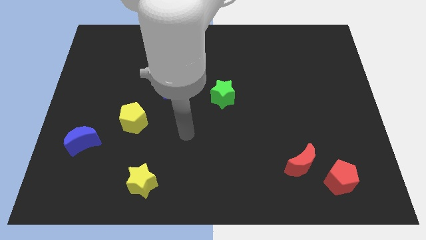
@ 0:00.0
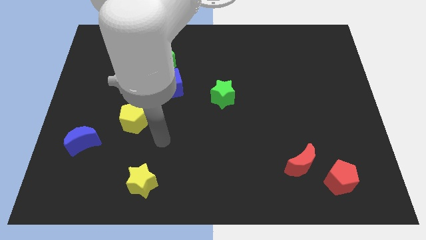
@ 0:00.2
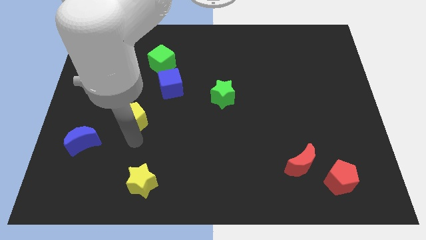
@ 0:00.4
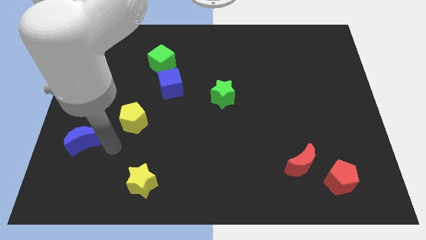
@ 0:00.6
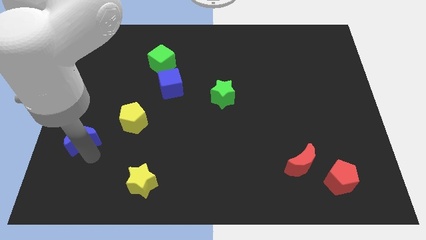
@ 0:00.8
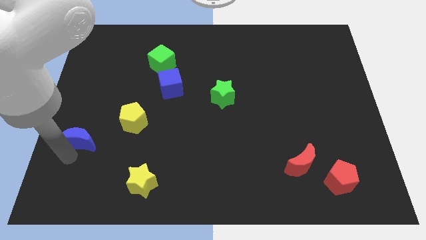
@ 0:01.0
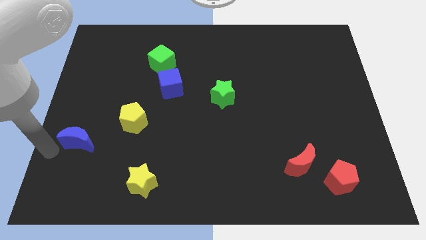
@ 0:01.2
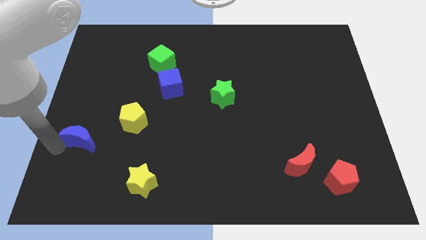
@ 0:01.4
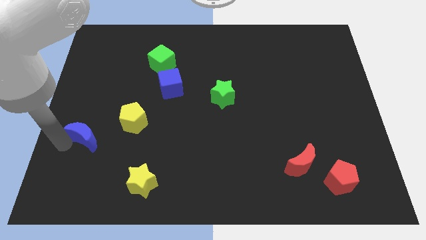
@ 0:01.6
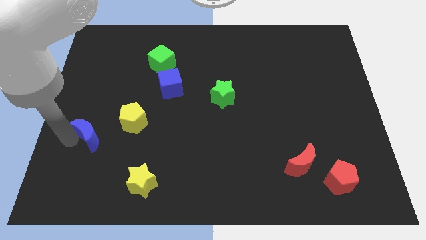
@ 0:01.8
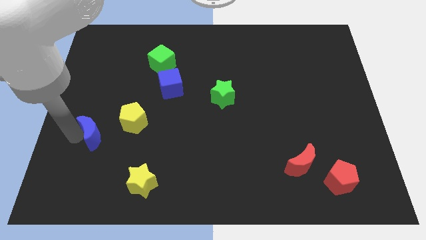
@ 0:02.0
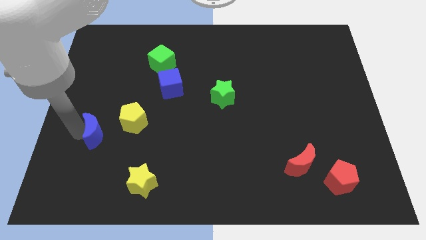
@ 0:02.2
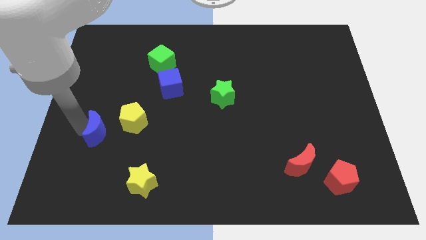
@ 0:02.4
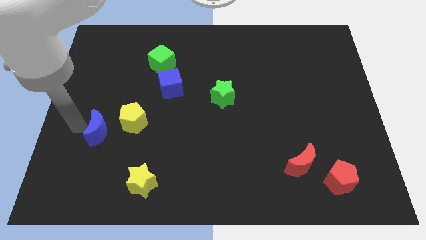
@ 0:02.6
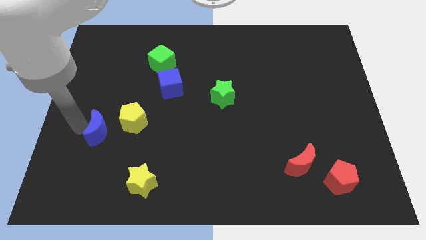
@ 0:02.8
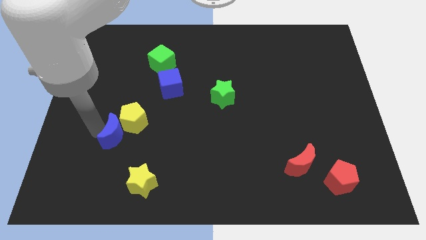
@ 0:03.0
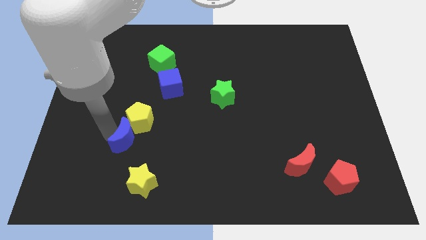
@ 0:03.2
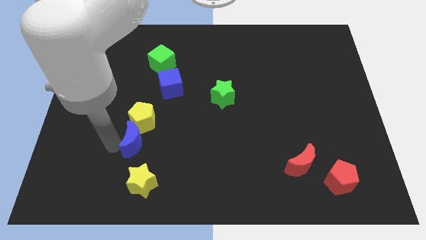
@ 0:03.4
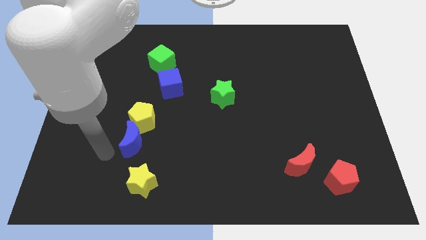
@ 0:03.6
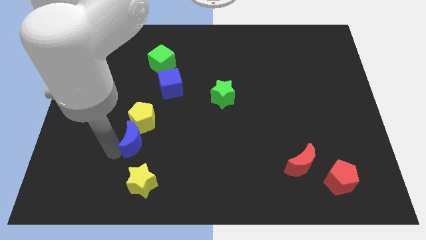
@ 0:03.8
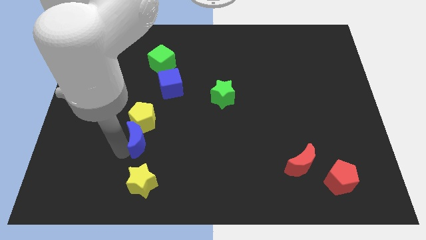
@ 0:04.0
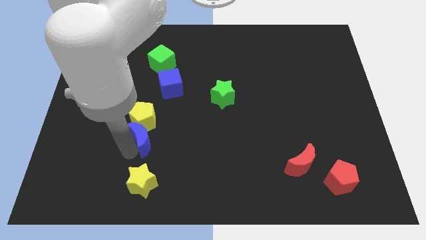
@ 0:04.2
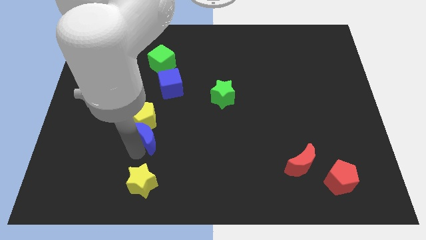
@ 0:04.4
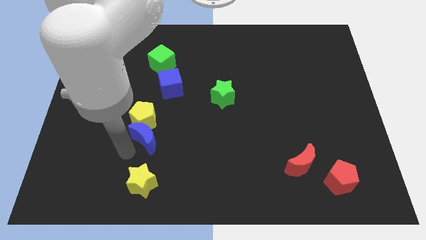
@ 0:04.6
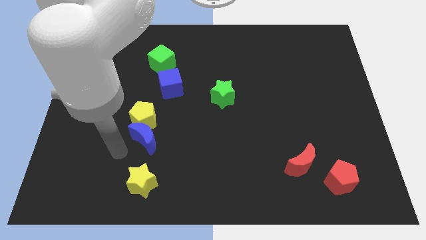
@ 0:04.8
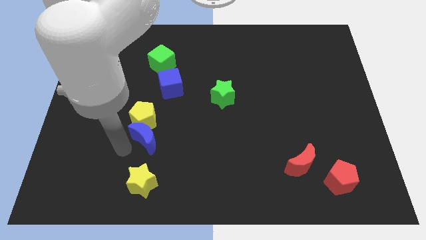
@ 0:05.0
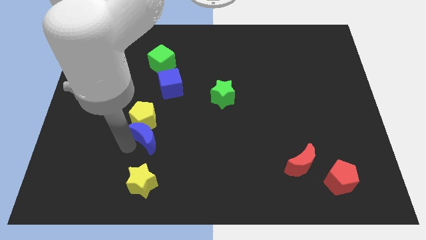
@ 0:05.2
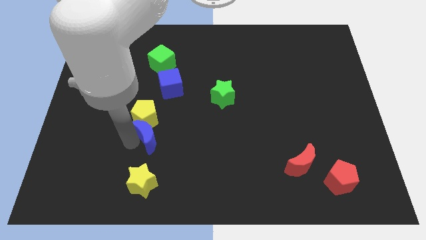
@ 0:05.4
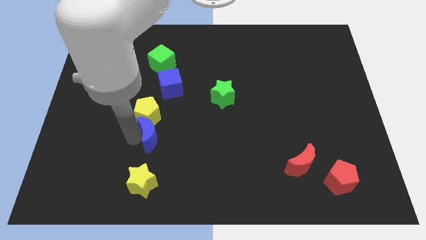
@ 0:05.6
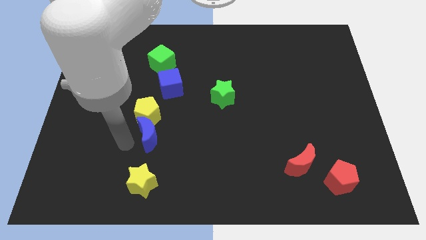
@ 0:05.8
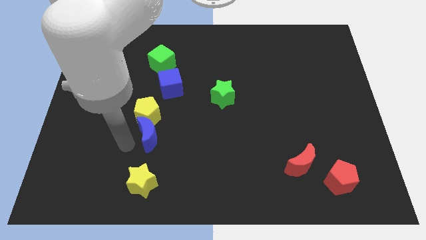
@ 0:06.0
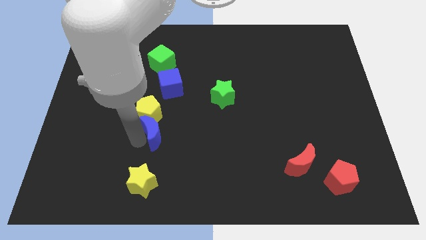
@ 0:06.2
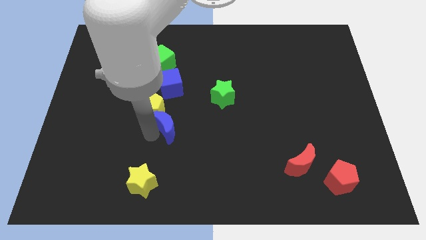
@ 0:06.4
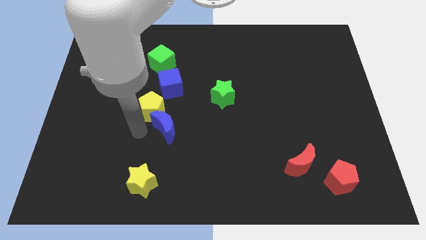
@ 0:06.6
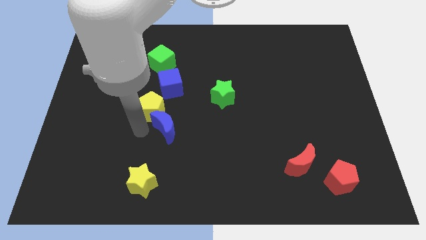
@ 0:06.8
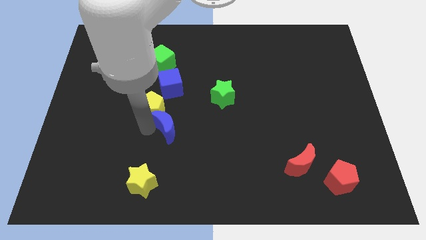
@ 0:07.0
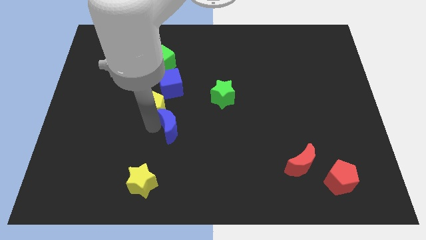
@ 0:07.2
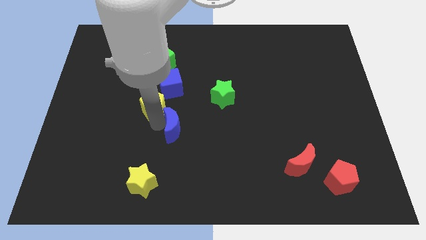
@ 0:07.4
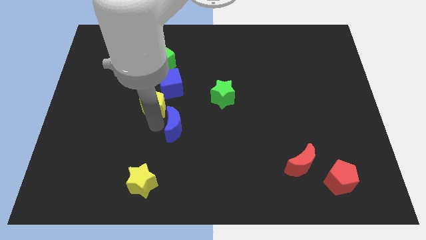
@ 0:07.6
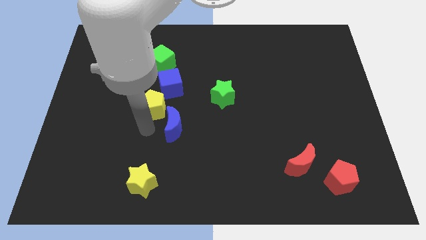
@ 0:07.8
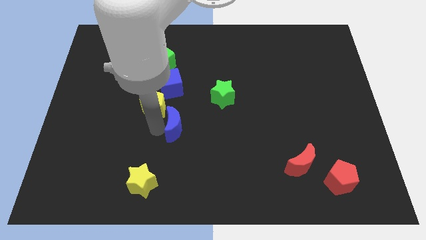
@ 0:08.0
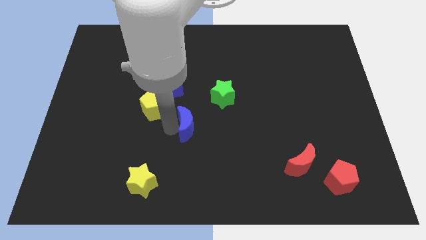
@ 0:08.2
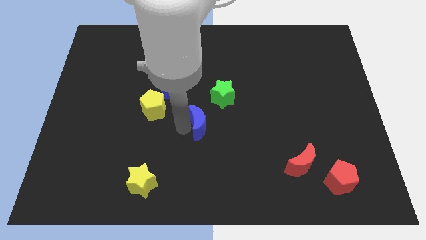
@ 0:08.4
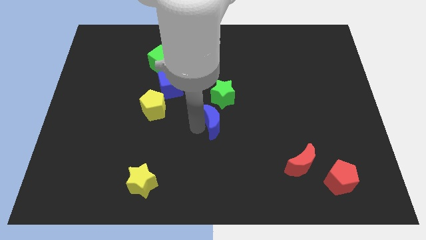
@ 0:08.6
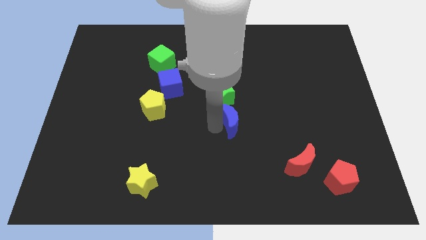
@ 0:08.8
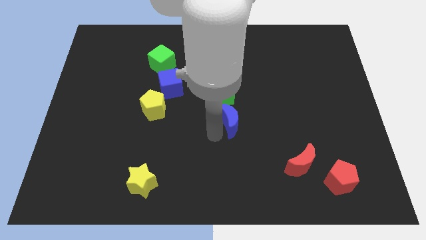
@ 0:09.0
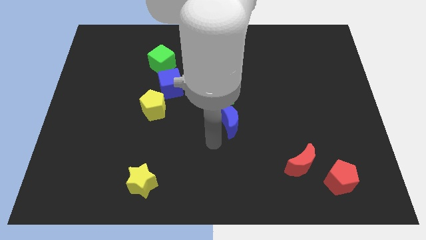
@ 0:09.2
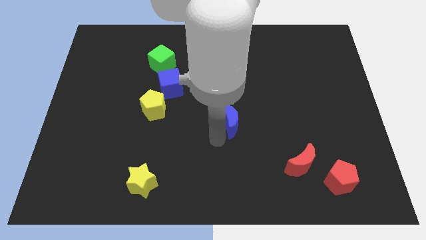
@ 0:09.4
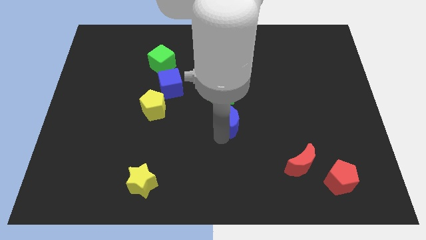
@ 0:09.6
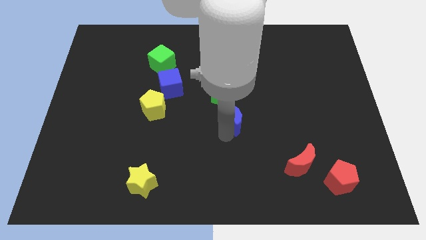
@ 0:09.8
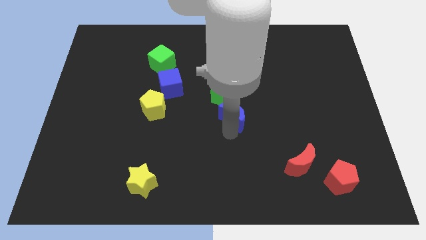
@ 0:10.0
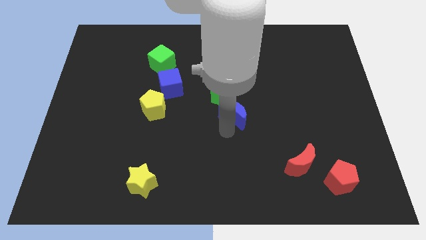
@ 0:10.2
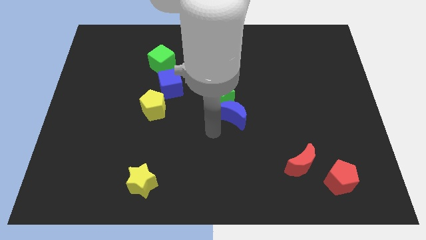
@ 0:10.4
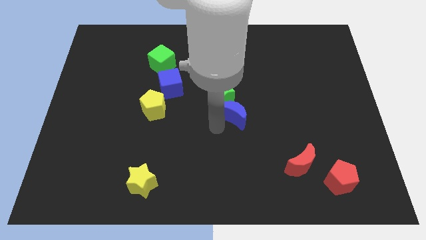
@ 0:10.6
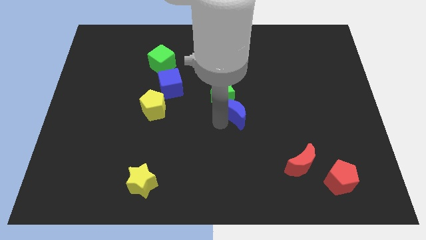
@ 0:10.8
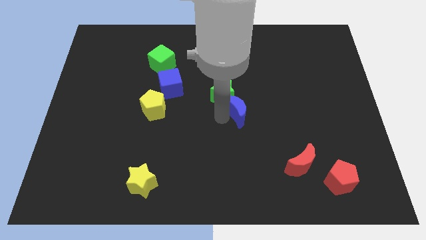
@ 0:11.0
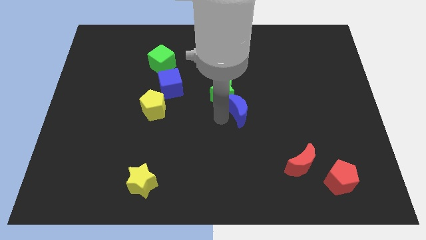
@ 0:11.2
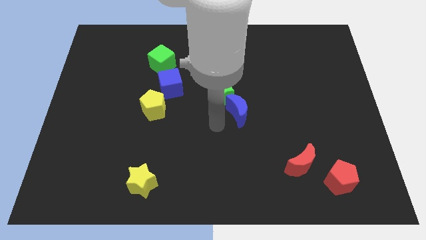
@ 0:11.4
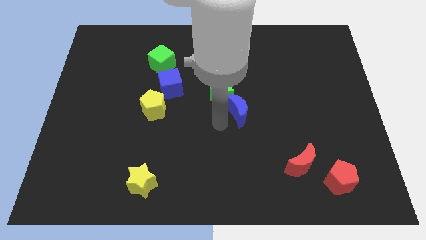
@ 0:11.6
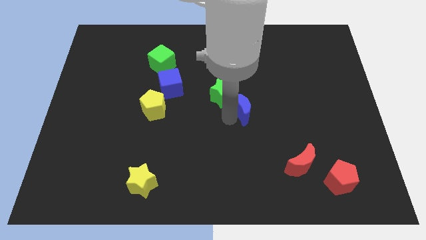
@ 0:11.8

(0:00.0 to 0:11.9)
move the blue moon right of the green star

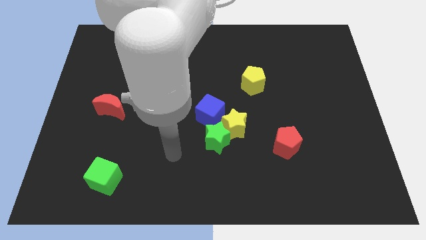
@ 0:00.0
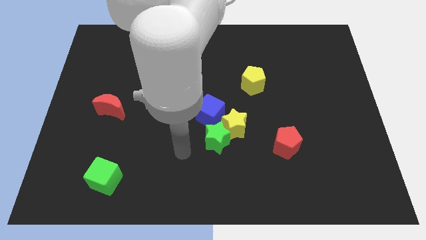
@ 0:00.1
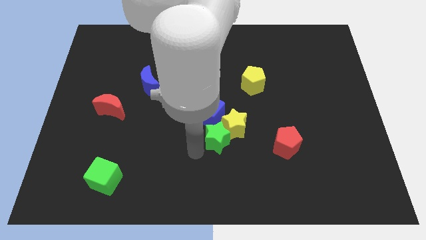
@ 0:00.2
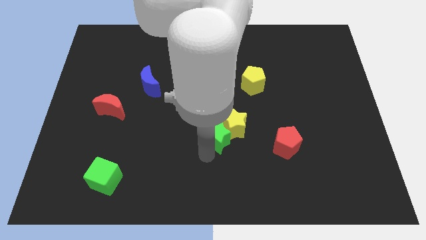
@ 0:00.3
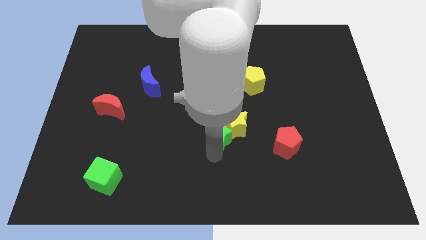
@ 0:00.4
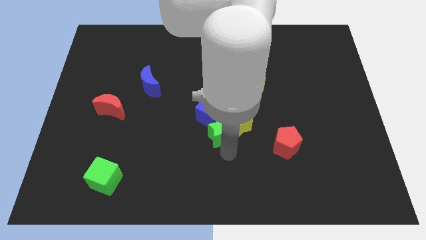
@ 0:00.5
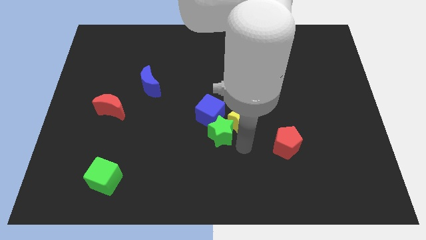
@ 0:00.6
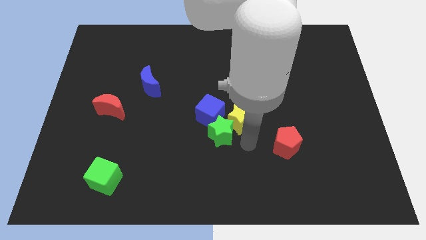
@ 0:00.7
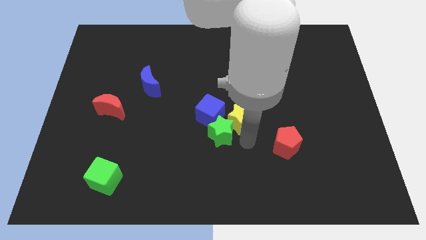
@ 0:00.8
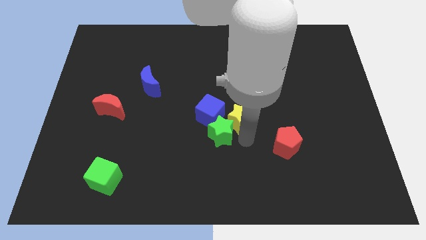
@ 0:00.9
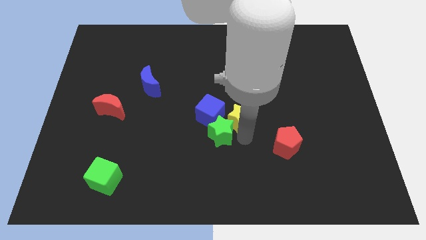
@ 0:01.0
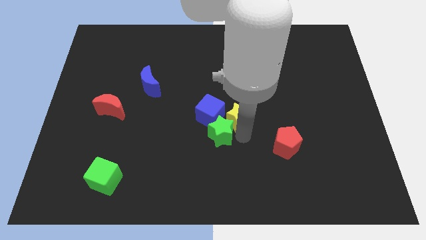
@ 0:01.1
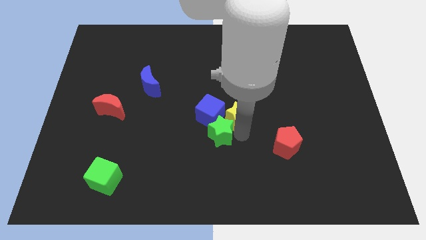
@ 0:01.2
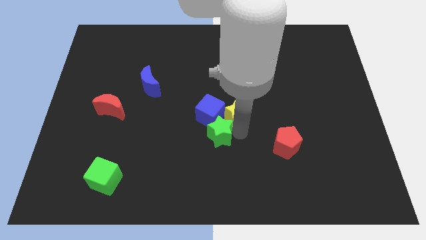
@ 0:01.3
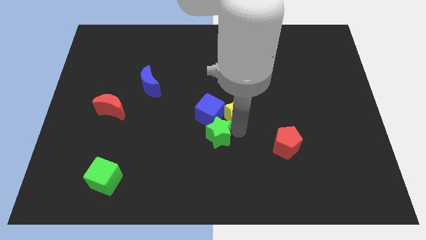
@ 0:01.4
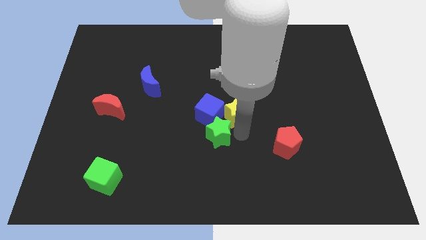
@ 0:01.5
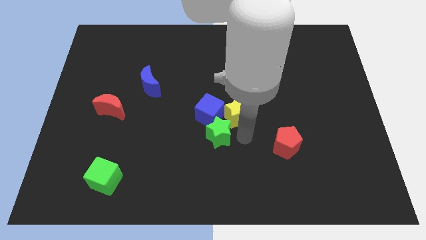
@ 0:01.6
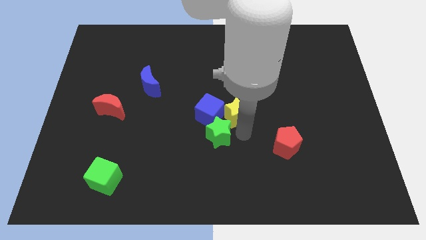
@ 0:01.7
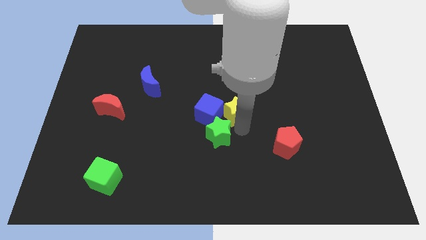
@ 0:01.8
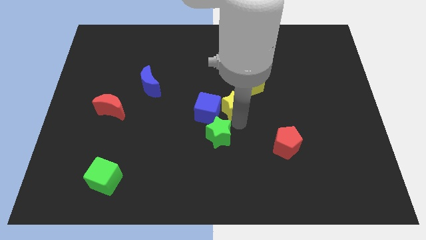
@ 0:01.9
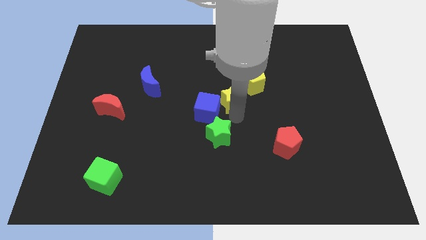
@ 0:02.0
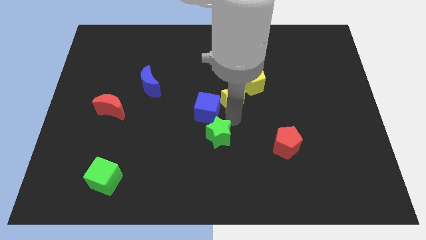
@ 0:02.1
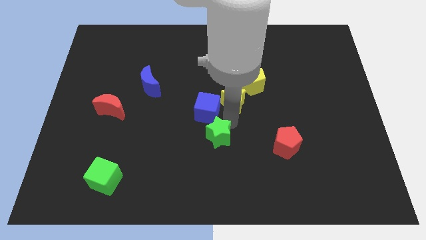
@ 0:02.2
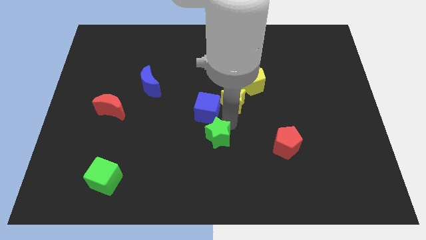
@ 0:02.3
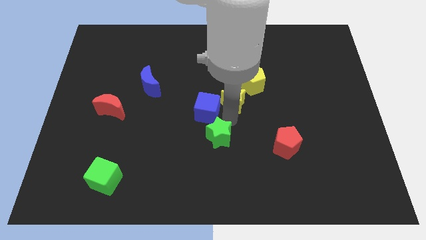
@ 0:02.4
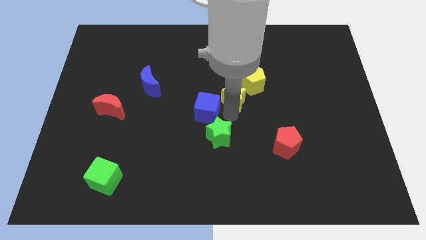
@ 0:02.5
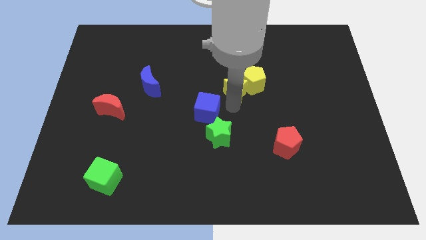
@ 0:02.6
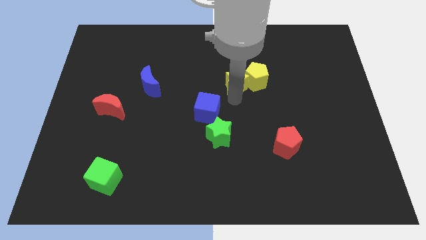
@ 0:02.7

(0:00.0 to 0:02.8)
put the yellow star diagonally up and to the left of the yellow pentagon
